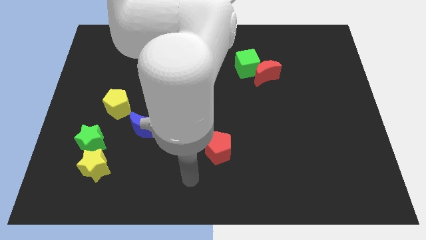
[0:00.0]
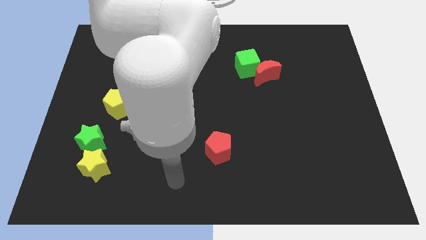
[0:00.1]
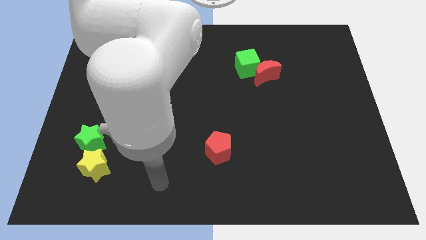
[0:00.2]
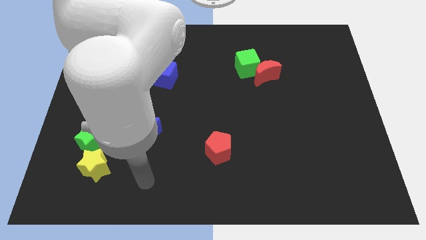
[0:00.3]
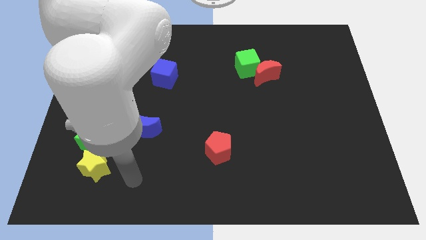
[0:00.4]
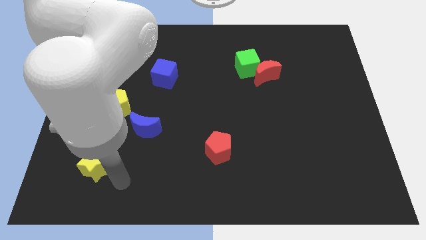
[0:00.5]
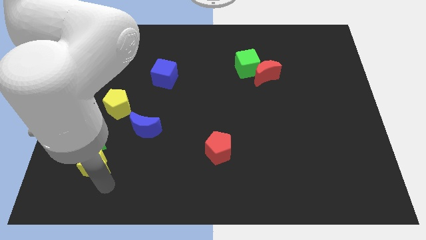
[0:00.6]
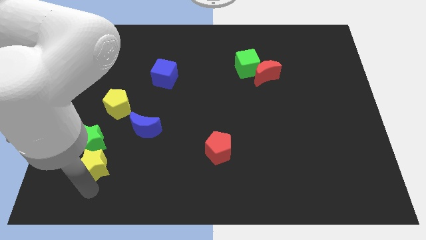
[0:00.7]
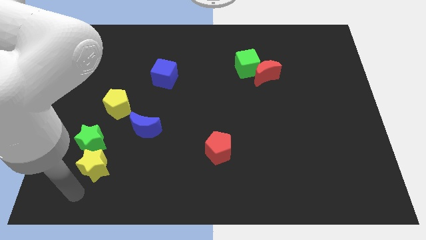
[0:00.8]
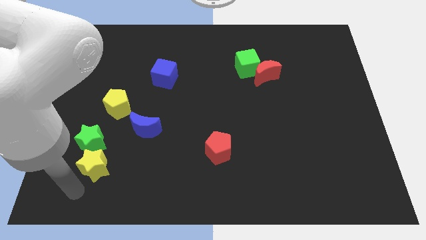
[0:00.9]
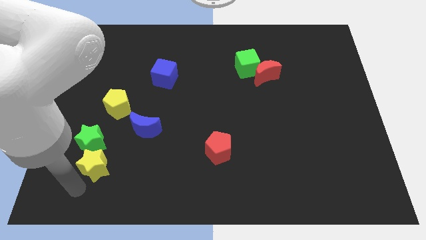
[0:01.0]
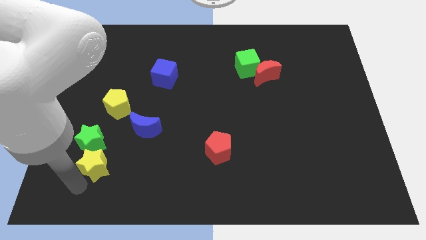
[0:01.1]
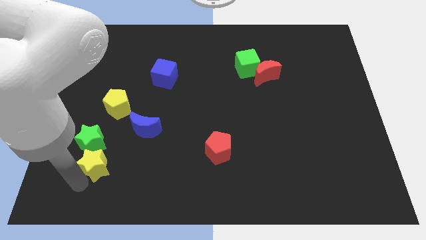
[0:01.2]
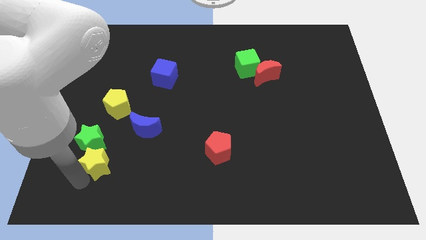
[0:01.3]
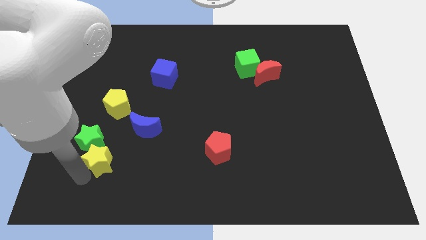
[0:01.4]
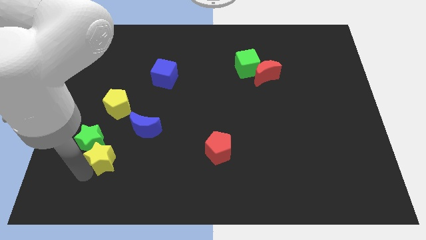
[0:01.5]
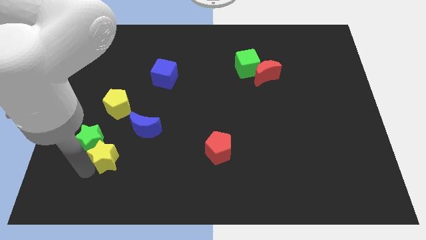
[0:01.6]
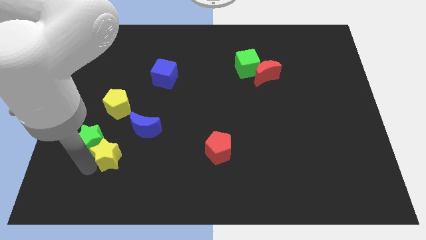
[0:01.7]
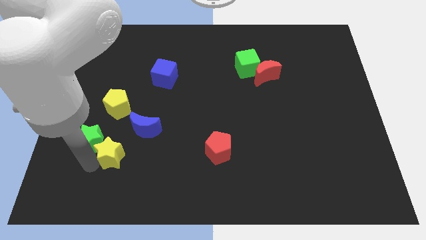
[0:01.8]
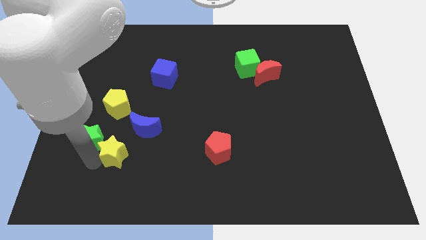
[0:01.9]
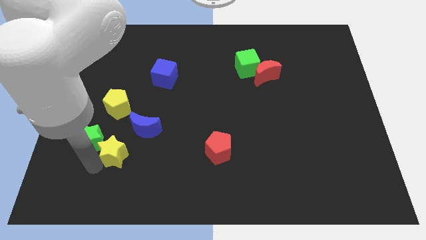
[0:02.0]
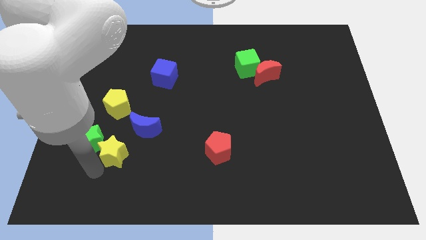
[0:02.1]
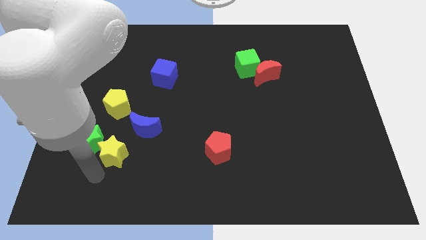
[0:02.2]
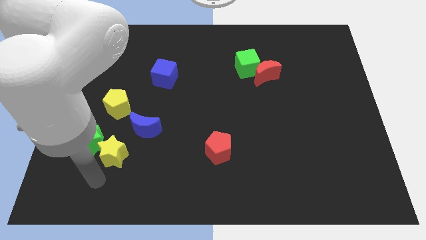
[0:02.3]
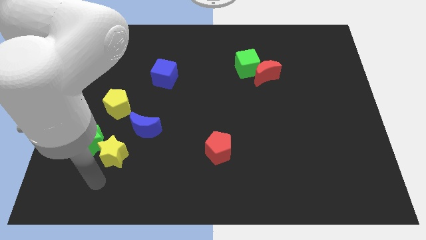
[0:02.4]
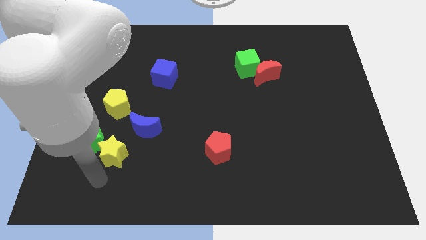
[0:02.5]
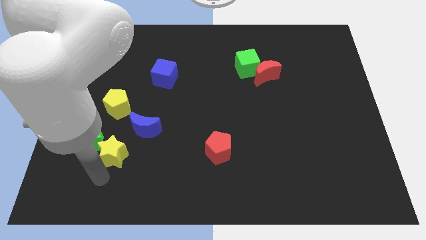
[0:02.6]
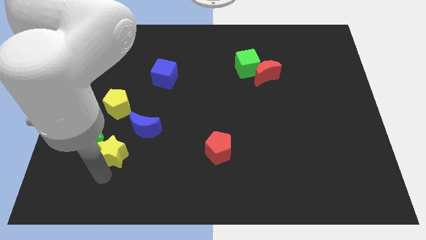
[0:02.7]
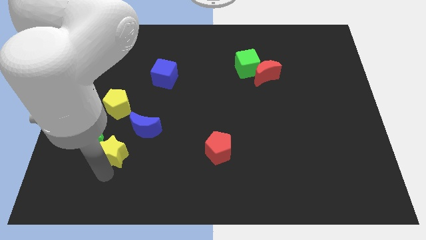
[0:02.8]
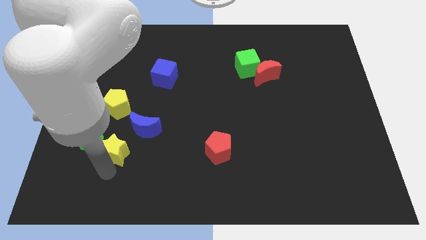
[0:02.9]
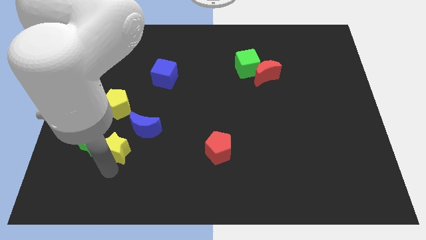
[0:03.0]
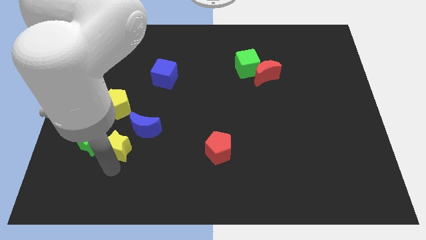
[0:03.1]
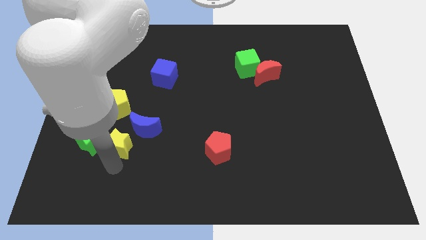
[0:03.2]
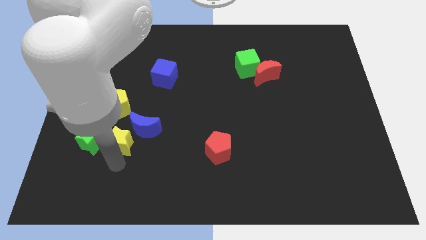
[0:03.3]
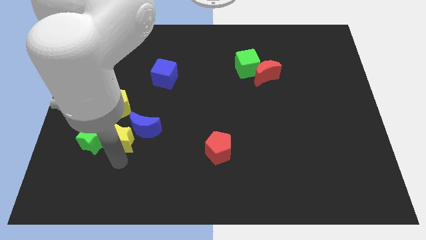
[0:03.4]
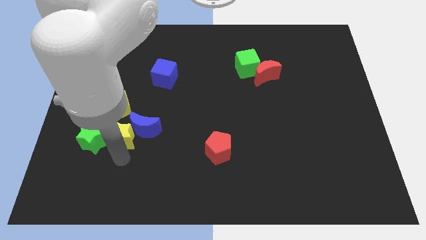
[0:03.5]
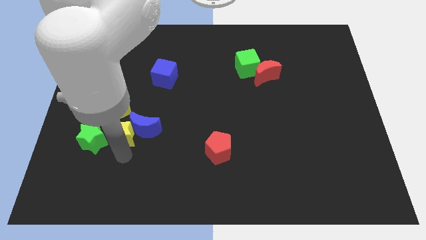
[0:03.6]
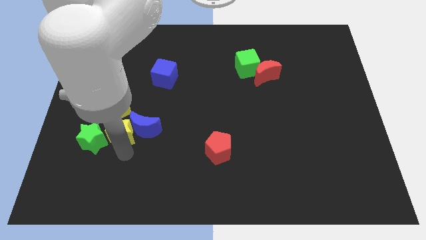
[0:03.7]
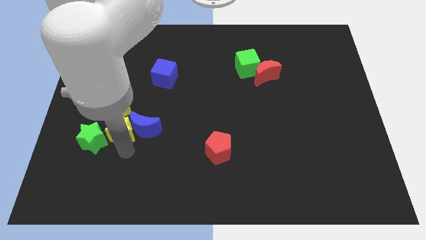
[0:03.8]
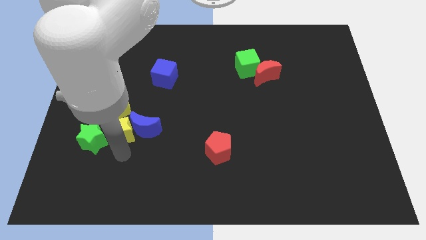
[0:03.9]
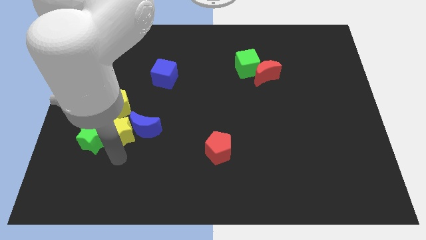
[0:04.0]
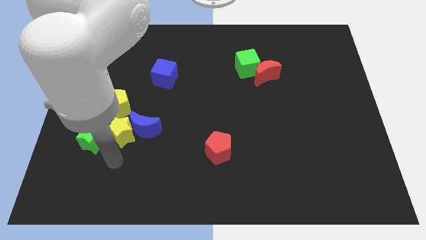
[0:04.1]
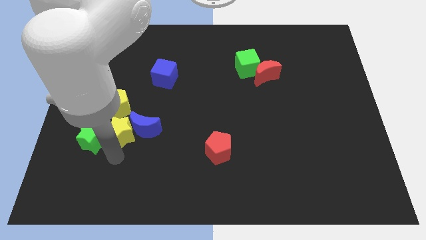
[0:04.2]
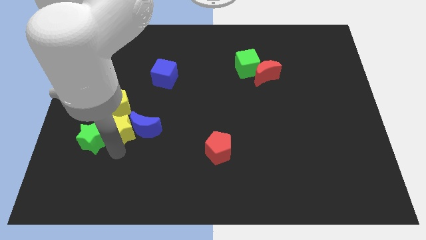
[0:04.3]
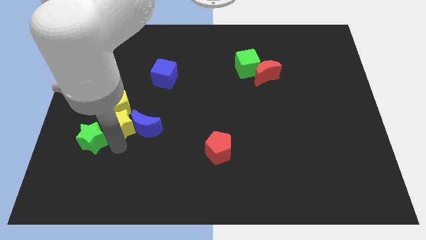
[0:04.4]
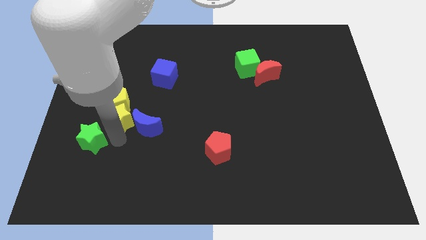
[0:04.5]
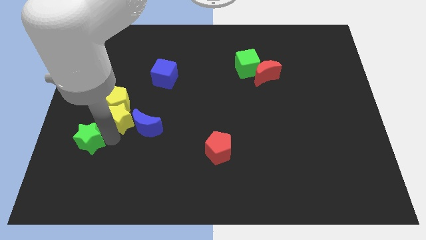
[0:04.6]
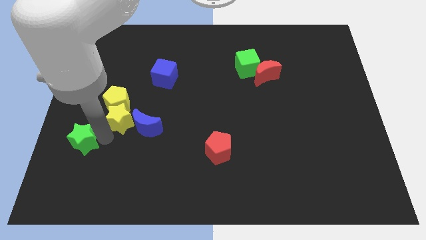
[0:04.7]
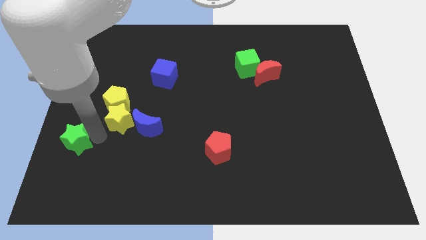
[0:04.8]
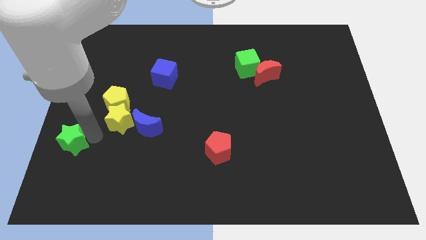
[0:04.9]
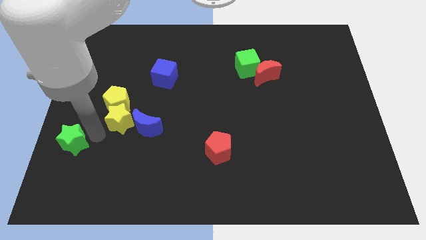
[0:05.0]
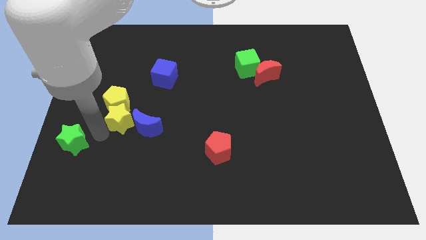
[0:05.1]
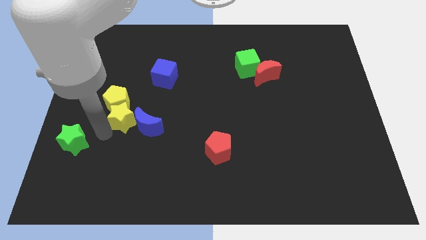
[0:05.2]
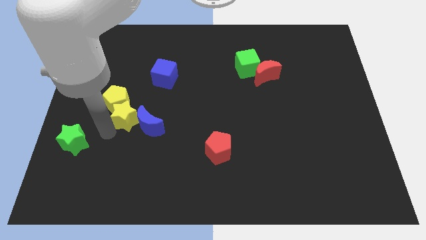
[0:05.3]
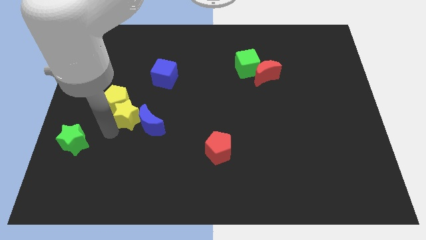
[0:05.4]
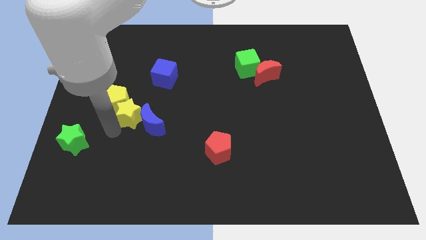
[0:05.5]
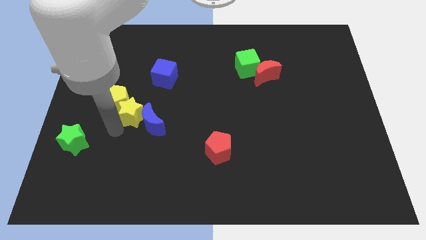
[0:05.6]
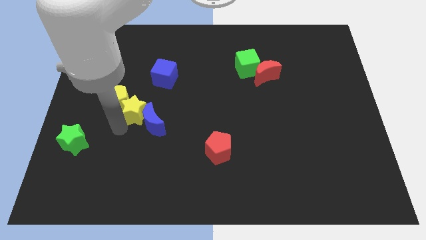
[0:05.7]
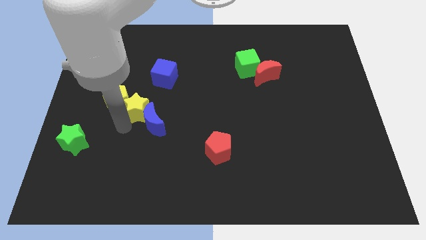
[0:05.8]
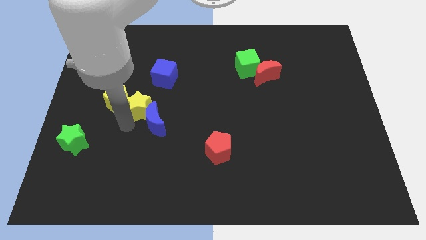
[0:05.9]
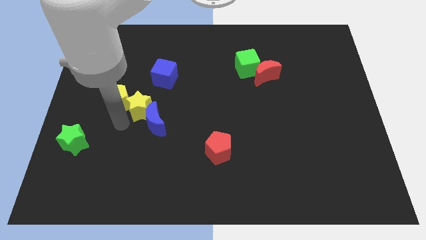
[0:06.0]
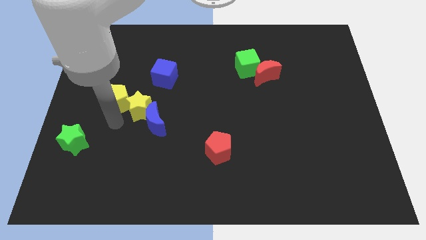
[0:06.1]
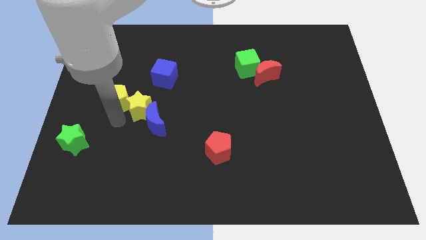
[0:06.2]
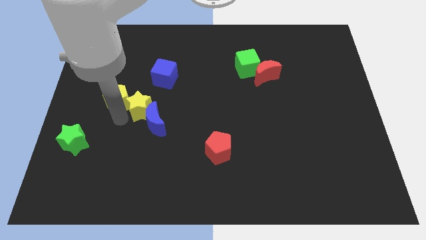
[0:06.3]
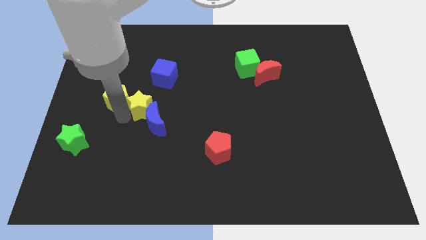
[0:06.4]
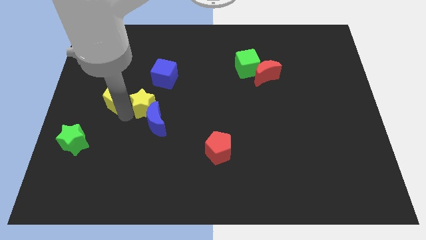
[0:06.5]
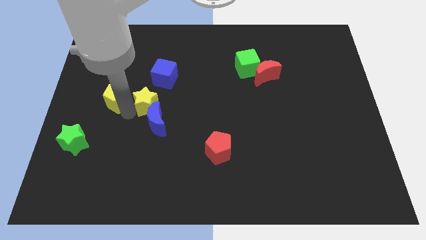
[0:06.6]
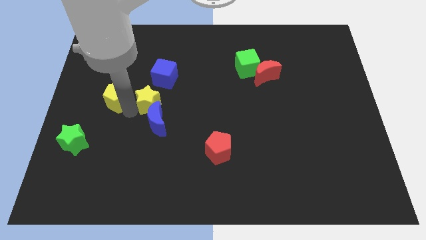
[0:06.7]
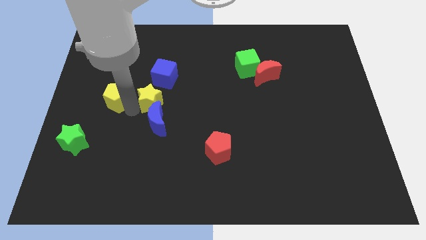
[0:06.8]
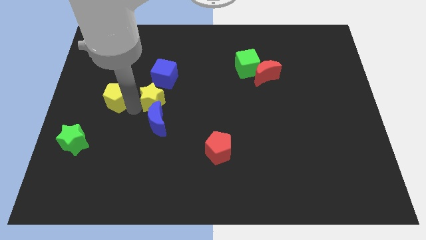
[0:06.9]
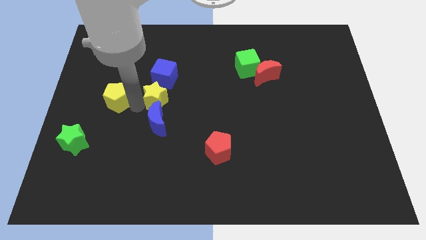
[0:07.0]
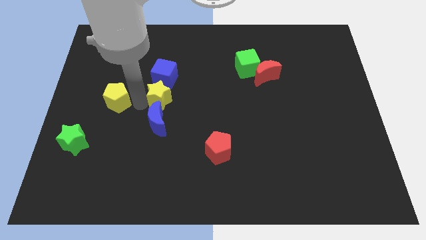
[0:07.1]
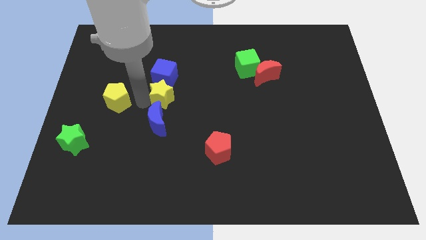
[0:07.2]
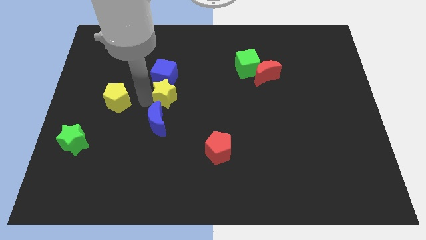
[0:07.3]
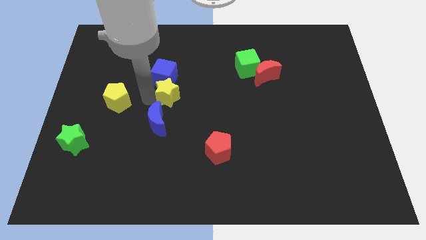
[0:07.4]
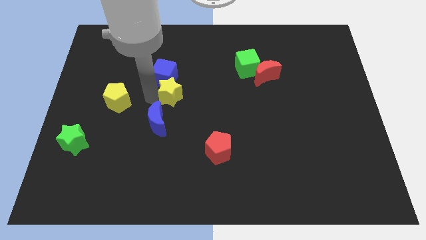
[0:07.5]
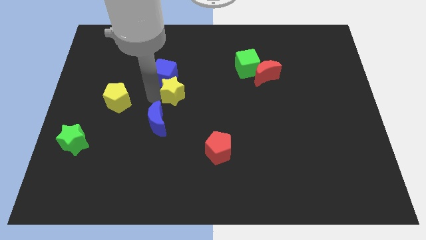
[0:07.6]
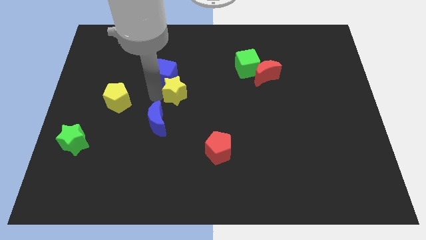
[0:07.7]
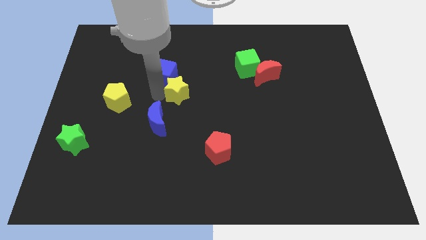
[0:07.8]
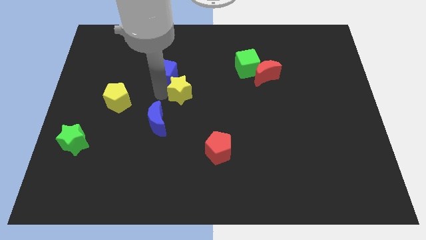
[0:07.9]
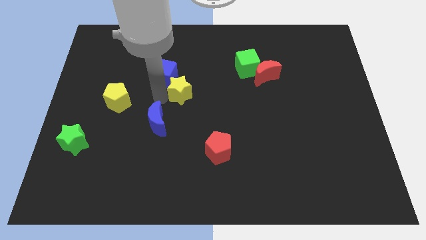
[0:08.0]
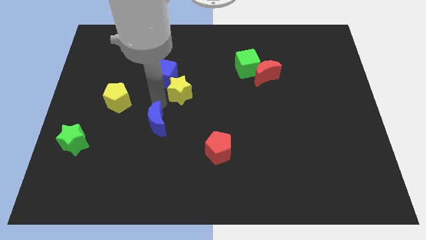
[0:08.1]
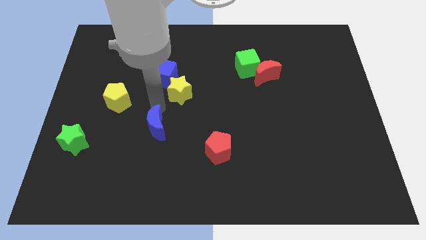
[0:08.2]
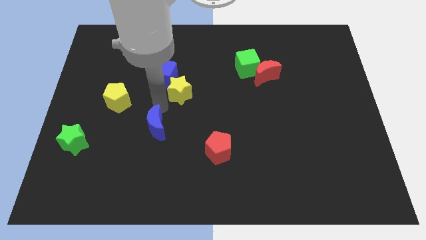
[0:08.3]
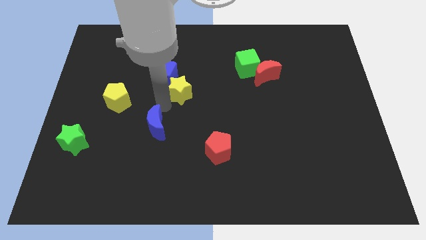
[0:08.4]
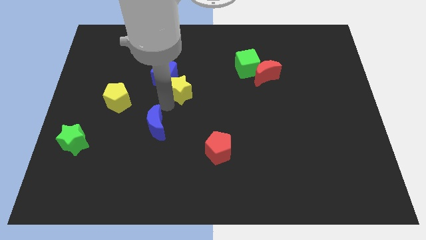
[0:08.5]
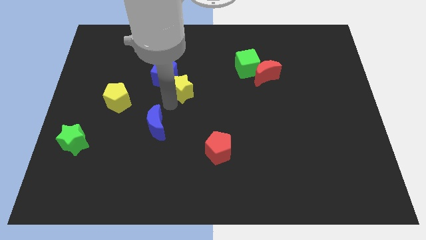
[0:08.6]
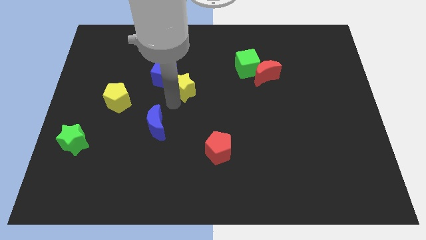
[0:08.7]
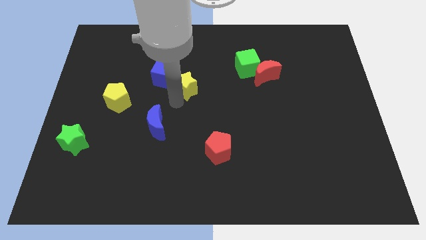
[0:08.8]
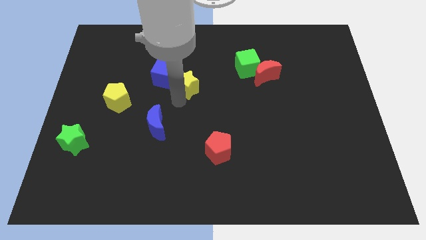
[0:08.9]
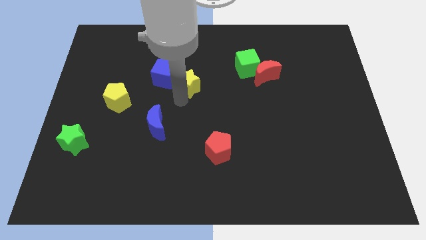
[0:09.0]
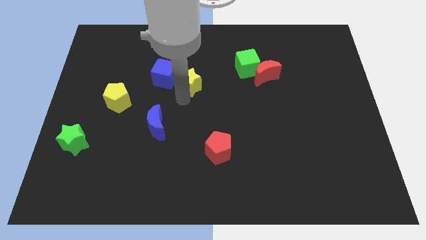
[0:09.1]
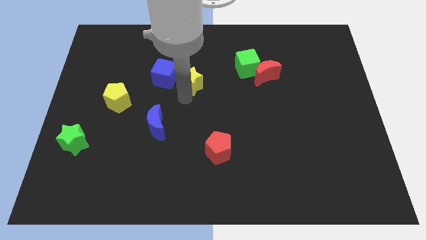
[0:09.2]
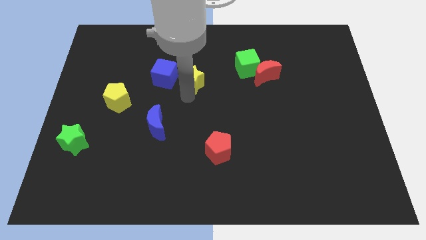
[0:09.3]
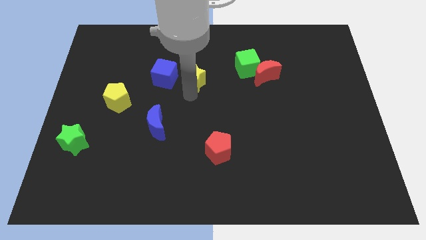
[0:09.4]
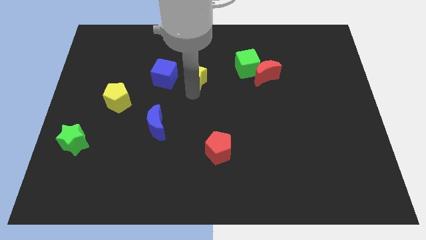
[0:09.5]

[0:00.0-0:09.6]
put the yellow star left of the green cube
